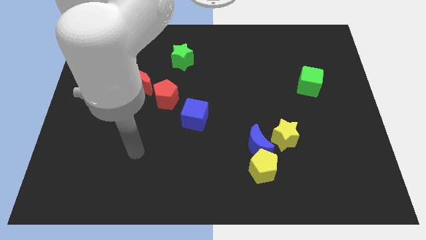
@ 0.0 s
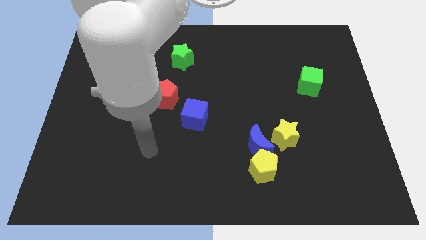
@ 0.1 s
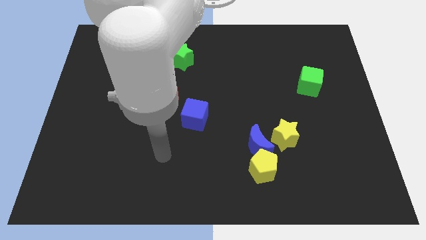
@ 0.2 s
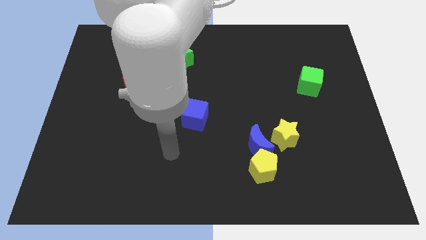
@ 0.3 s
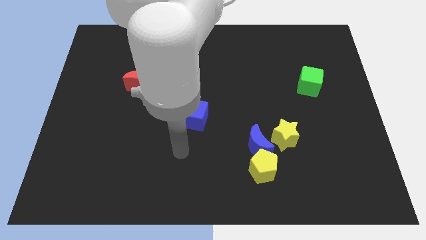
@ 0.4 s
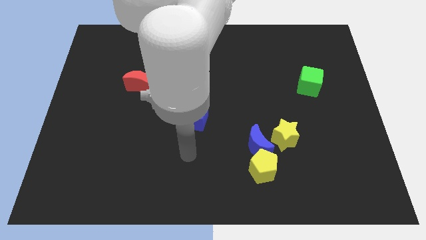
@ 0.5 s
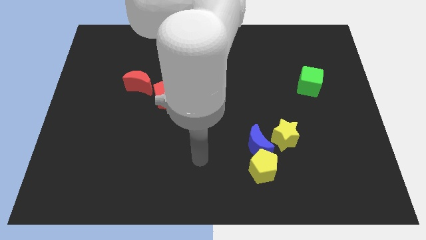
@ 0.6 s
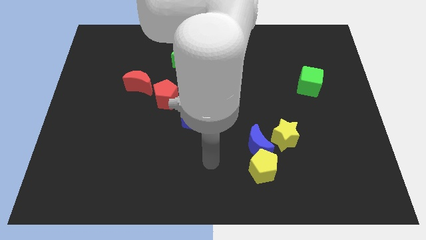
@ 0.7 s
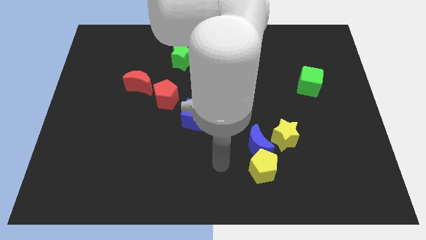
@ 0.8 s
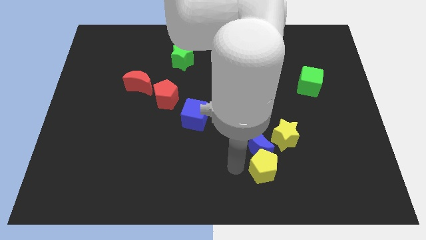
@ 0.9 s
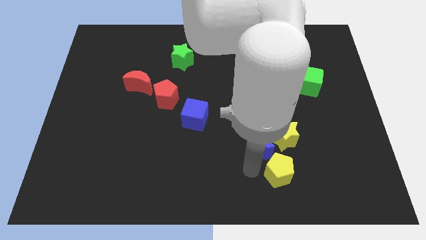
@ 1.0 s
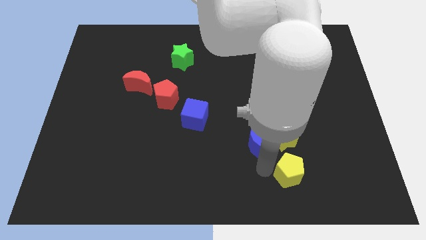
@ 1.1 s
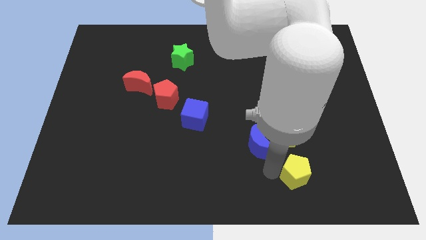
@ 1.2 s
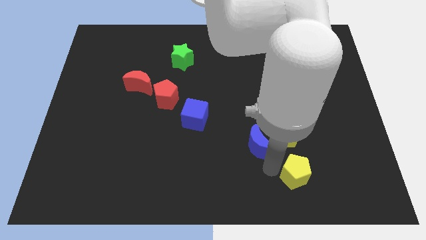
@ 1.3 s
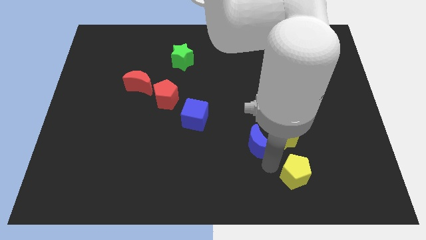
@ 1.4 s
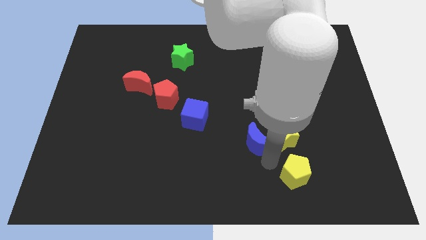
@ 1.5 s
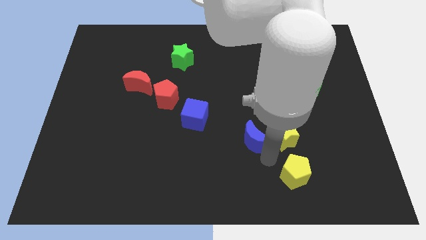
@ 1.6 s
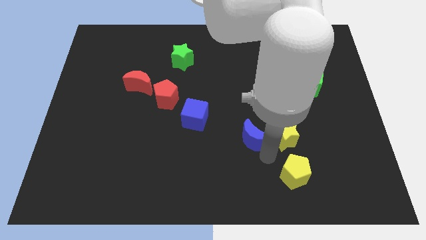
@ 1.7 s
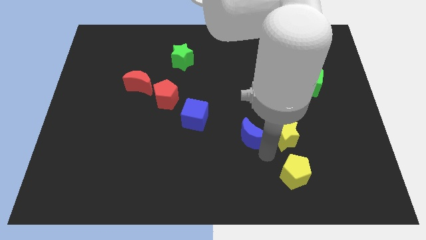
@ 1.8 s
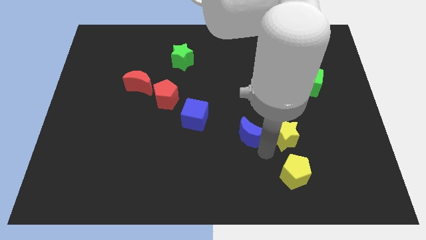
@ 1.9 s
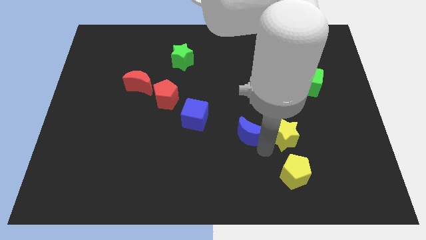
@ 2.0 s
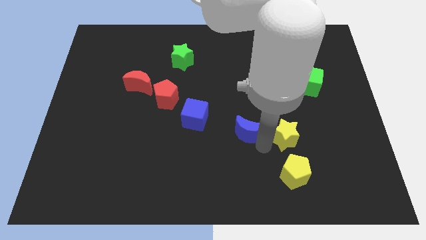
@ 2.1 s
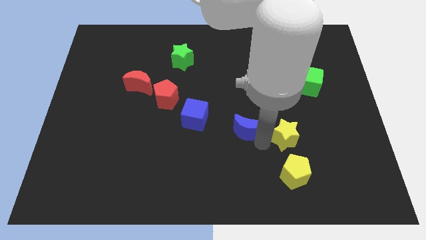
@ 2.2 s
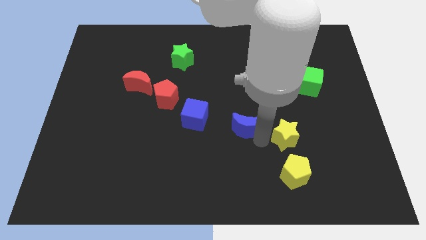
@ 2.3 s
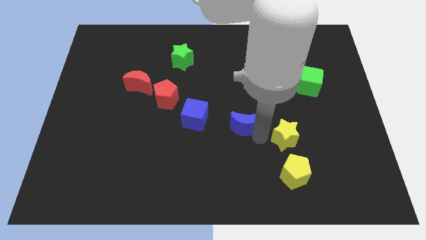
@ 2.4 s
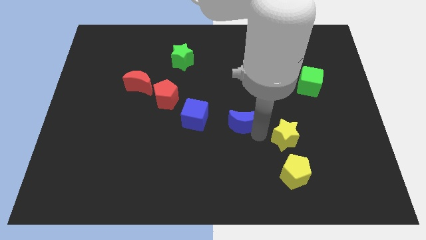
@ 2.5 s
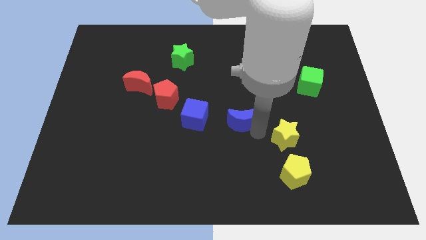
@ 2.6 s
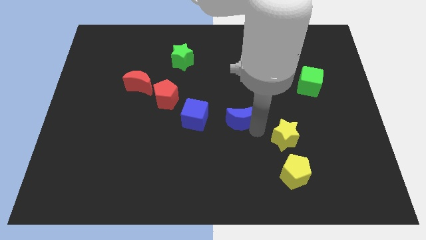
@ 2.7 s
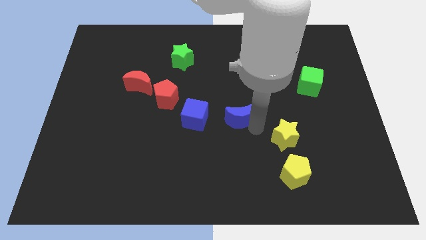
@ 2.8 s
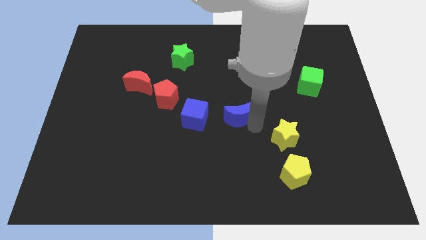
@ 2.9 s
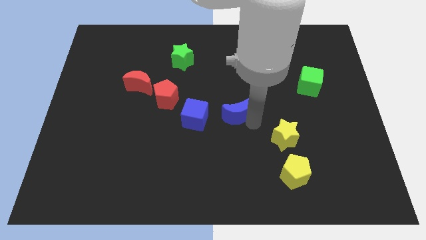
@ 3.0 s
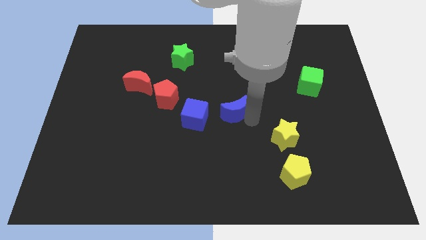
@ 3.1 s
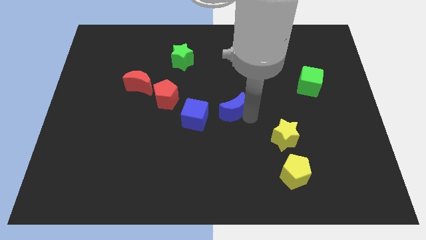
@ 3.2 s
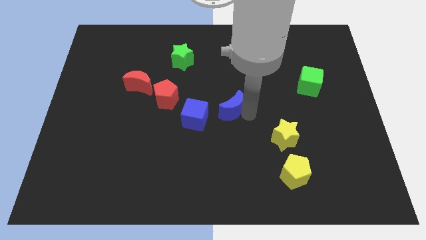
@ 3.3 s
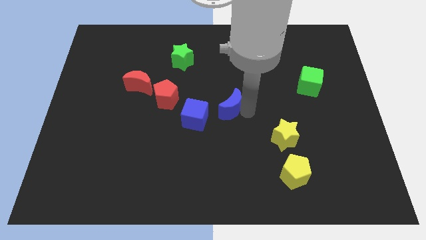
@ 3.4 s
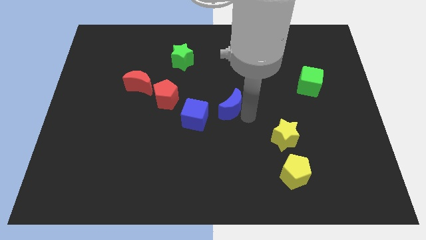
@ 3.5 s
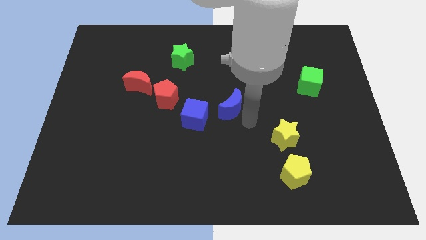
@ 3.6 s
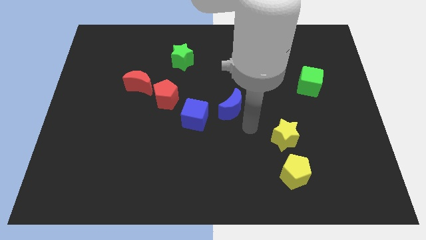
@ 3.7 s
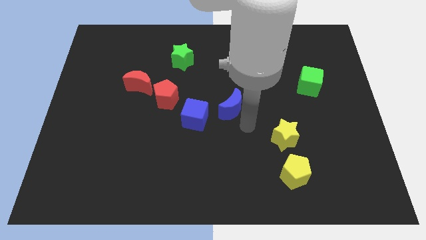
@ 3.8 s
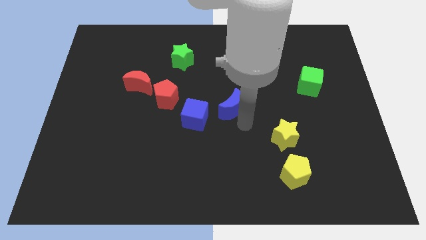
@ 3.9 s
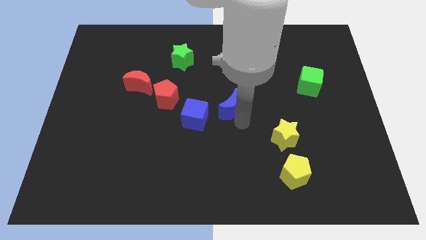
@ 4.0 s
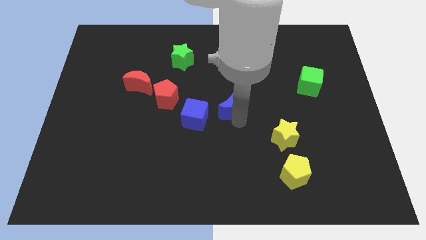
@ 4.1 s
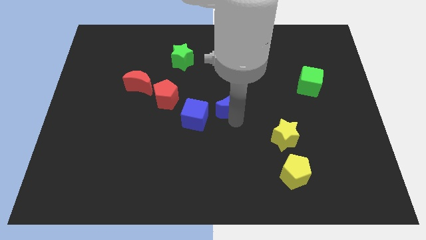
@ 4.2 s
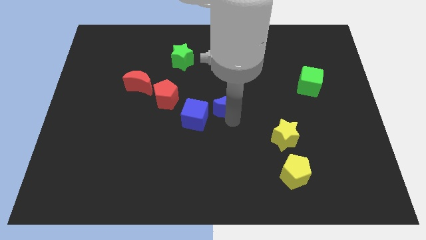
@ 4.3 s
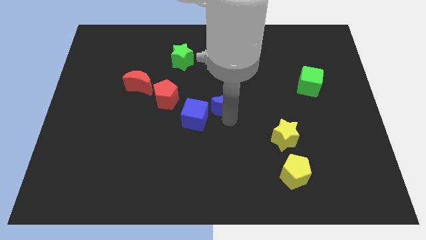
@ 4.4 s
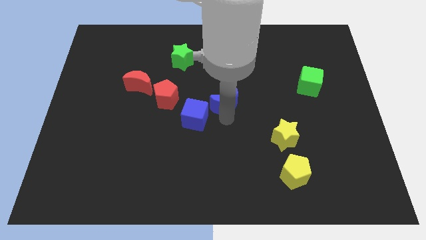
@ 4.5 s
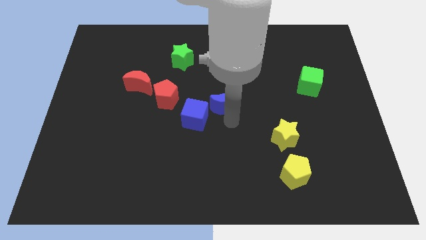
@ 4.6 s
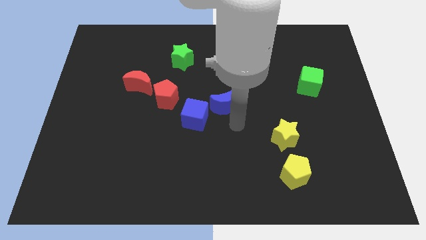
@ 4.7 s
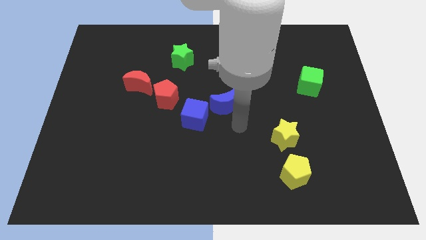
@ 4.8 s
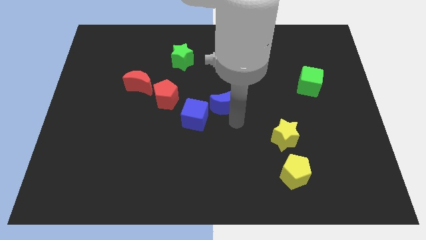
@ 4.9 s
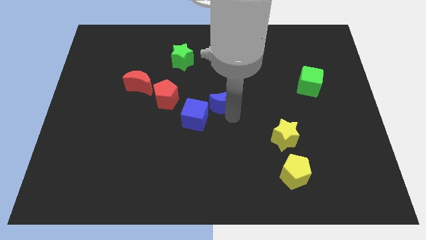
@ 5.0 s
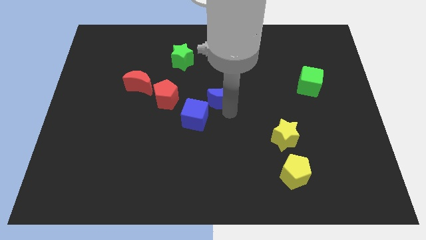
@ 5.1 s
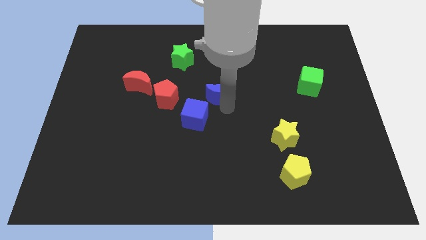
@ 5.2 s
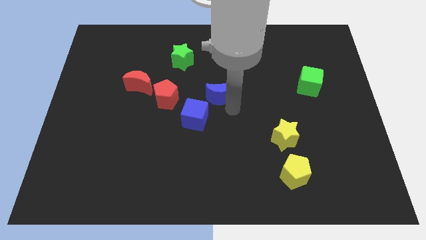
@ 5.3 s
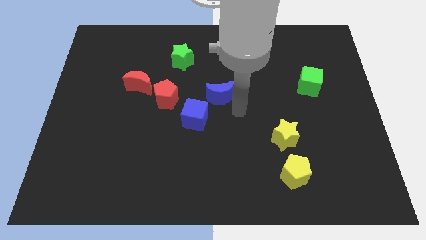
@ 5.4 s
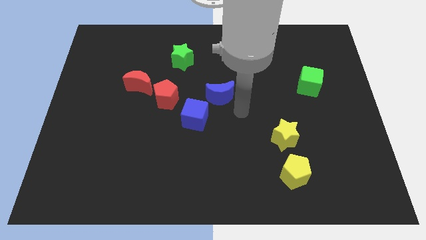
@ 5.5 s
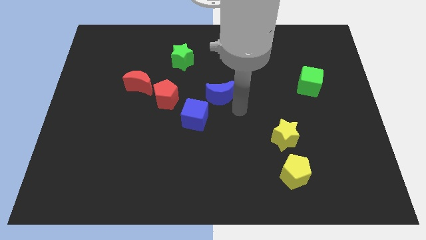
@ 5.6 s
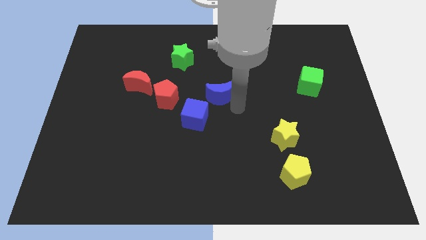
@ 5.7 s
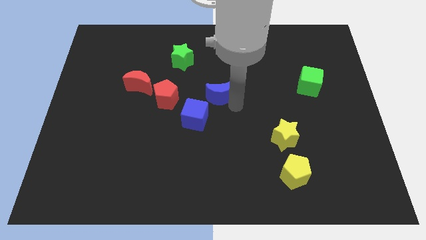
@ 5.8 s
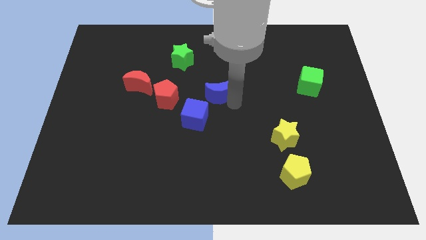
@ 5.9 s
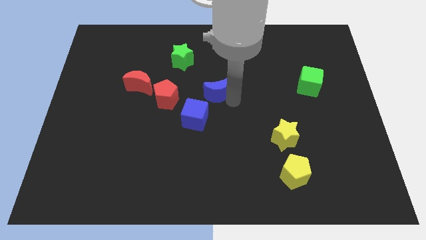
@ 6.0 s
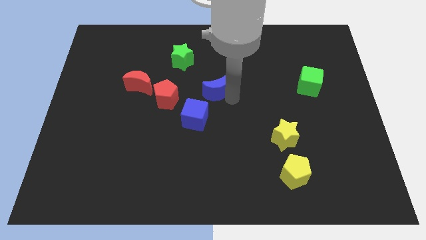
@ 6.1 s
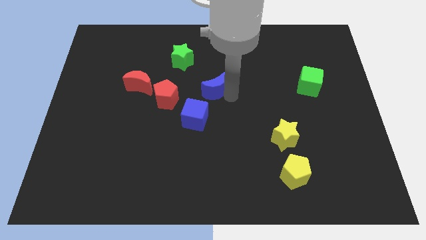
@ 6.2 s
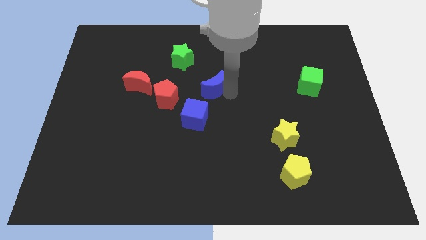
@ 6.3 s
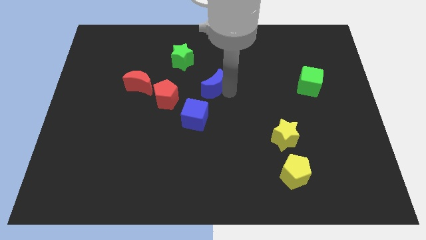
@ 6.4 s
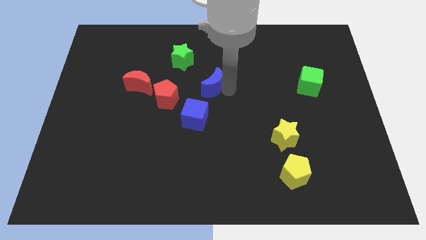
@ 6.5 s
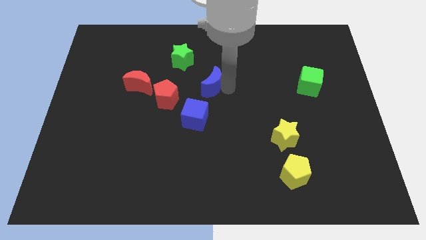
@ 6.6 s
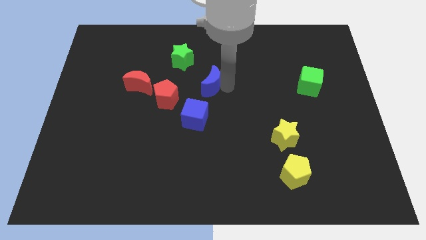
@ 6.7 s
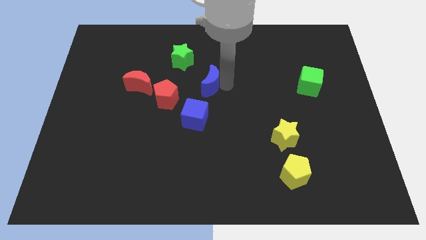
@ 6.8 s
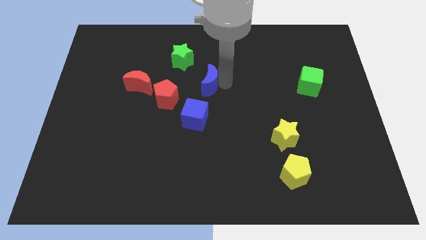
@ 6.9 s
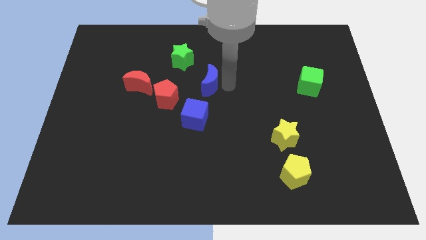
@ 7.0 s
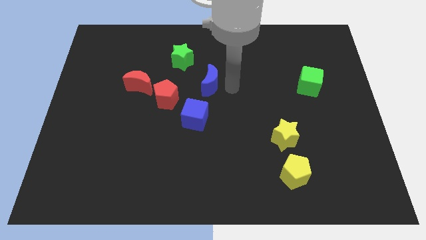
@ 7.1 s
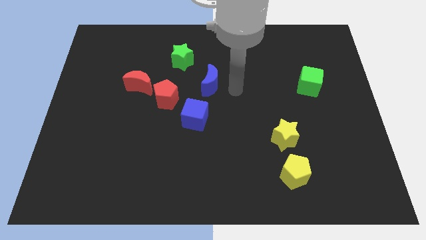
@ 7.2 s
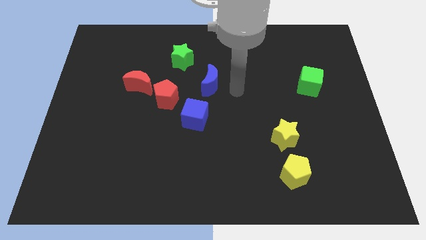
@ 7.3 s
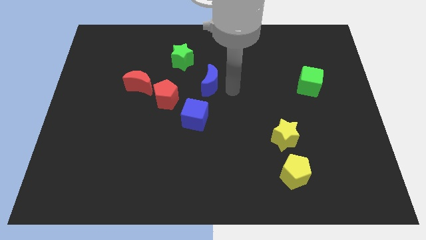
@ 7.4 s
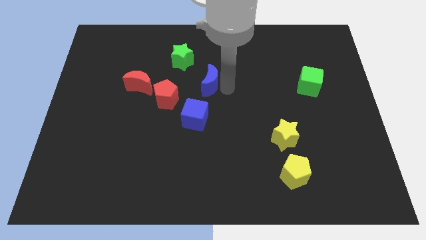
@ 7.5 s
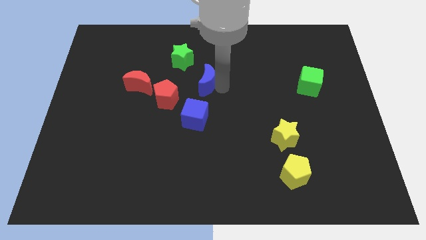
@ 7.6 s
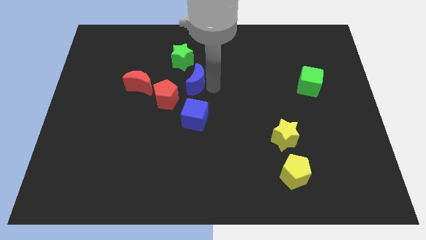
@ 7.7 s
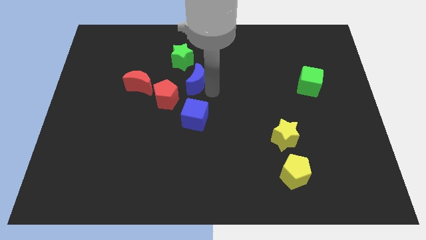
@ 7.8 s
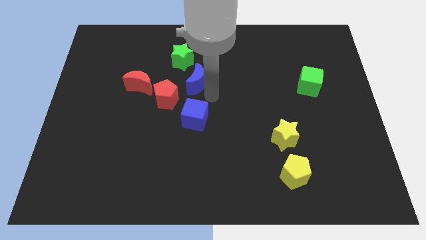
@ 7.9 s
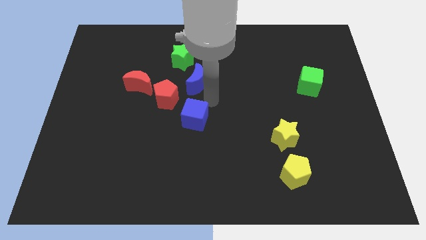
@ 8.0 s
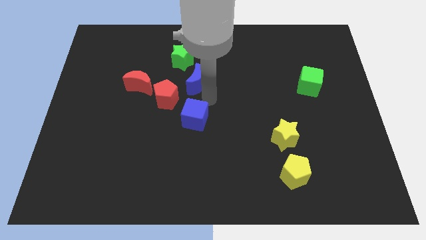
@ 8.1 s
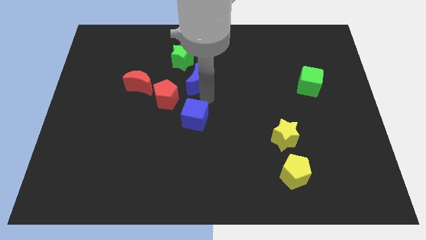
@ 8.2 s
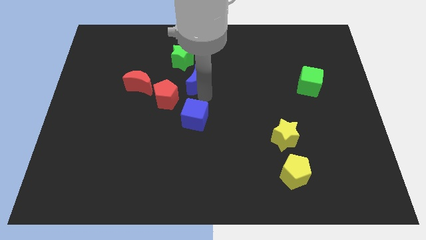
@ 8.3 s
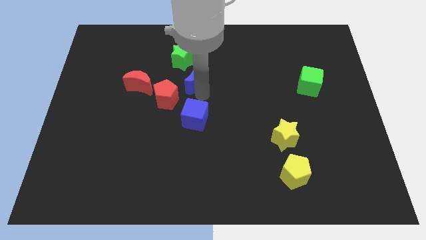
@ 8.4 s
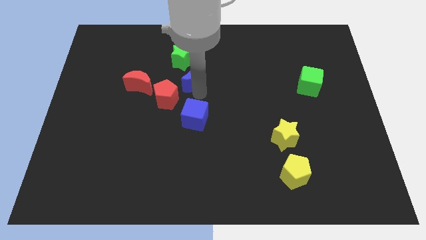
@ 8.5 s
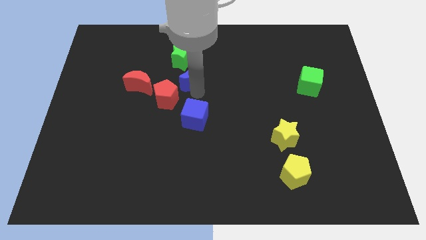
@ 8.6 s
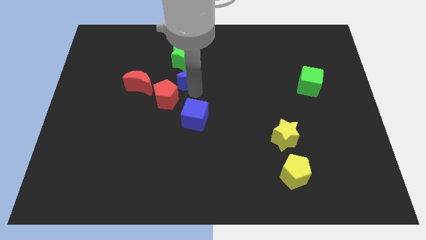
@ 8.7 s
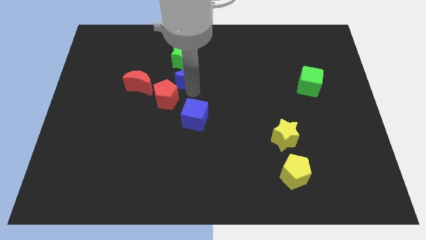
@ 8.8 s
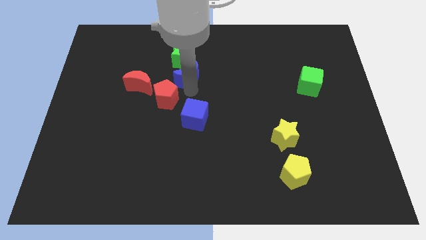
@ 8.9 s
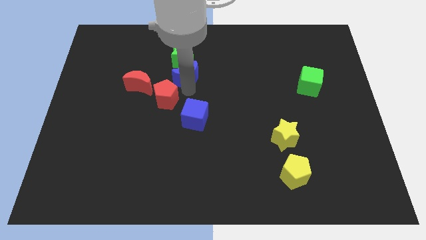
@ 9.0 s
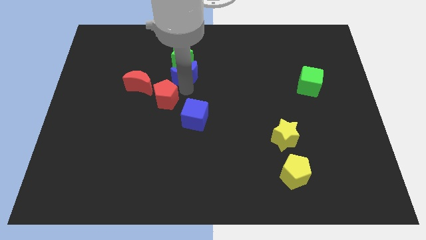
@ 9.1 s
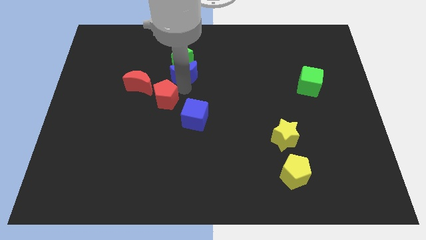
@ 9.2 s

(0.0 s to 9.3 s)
push the blue moon next to the green star
